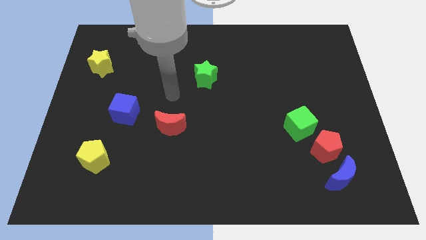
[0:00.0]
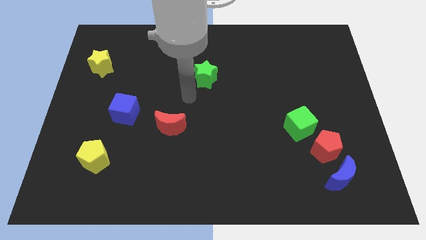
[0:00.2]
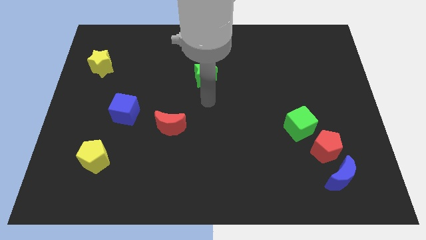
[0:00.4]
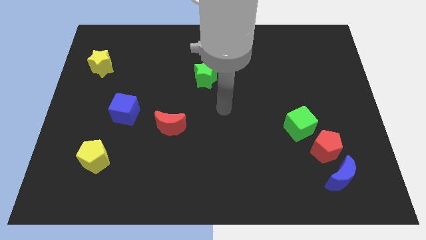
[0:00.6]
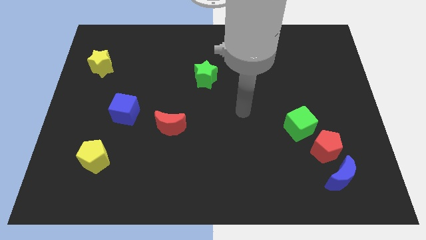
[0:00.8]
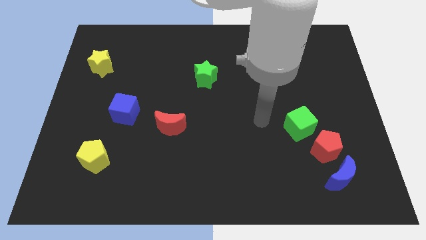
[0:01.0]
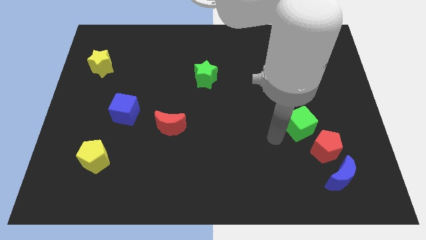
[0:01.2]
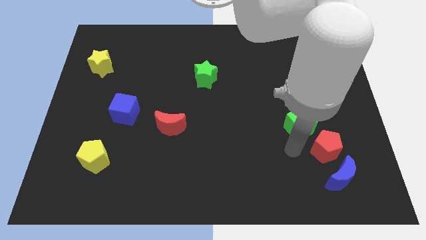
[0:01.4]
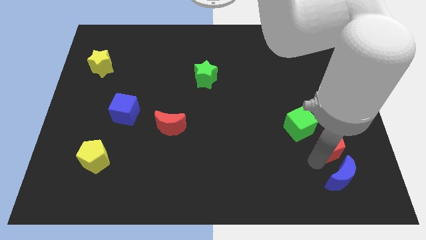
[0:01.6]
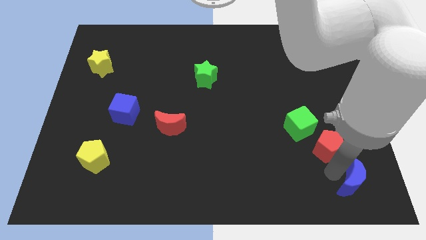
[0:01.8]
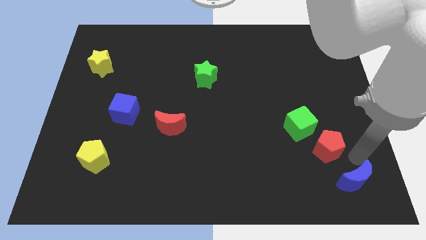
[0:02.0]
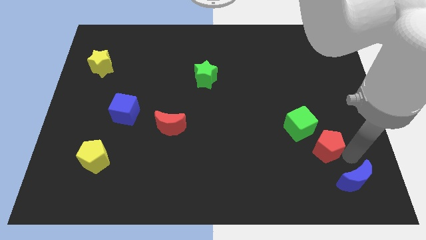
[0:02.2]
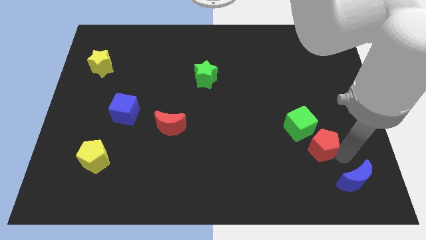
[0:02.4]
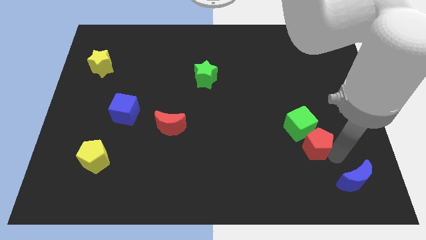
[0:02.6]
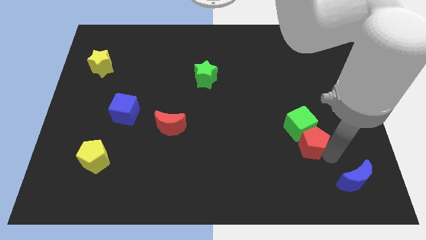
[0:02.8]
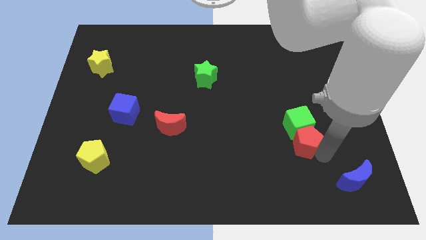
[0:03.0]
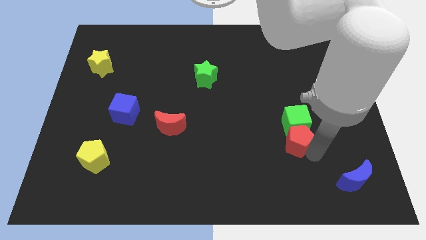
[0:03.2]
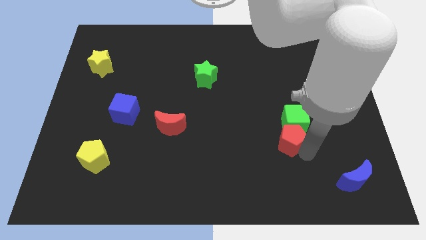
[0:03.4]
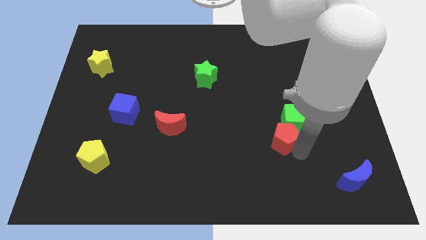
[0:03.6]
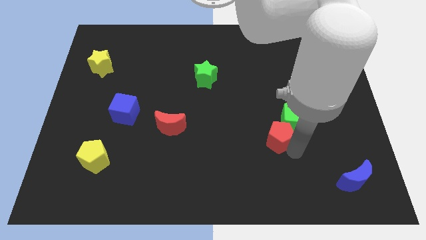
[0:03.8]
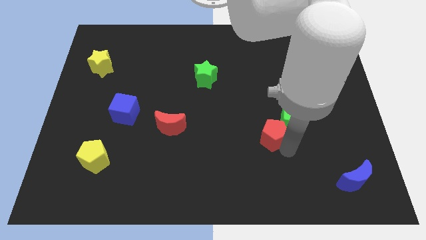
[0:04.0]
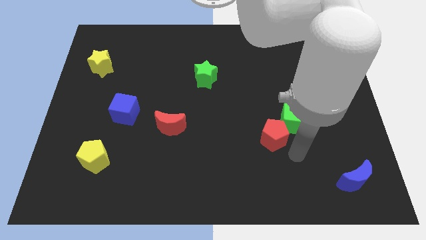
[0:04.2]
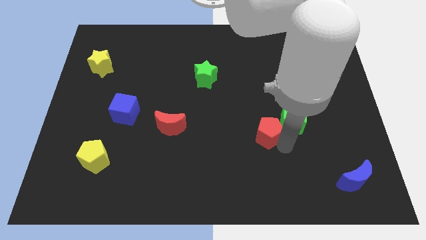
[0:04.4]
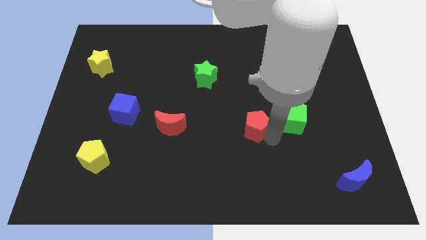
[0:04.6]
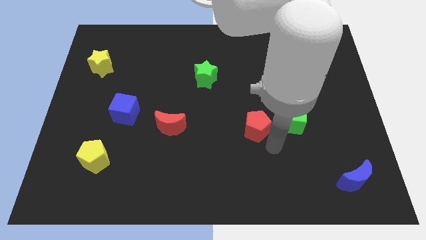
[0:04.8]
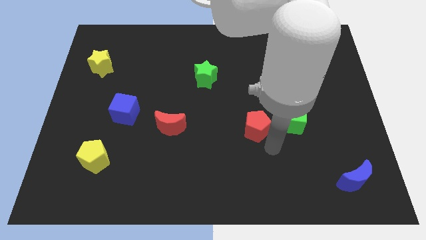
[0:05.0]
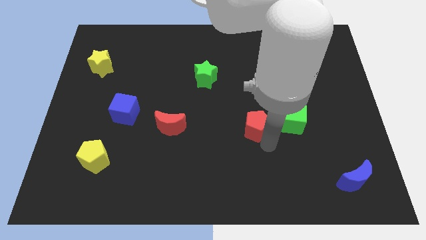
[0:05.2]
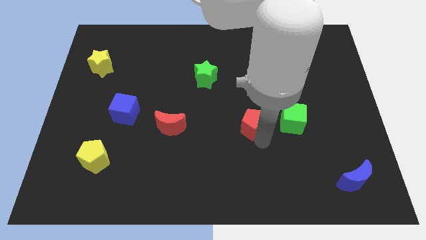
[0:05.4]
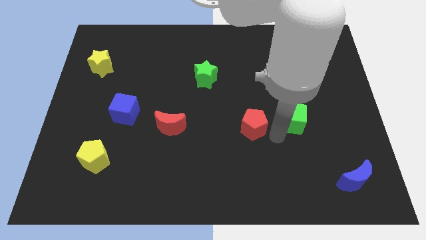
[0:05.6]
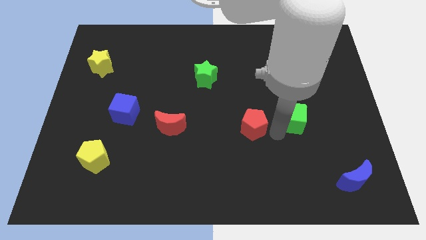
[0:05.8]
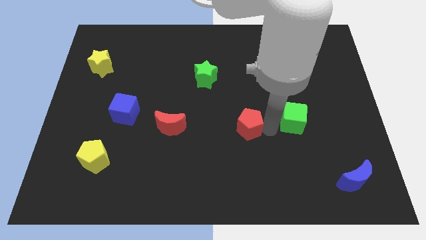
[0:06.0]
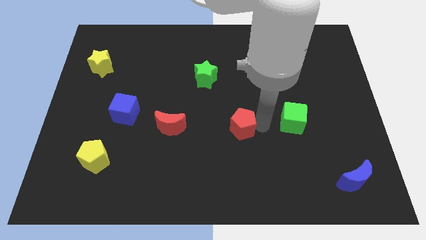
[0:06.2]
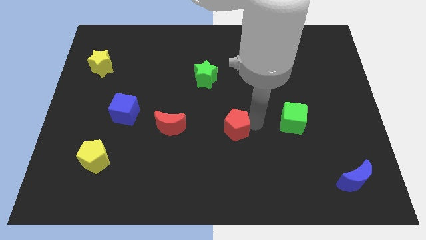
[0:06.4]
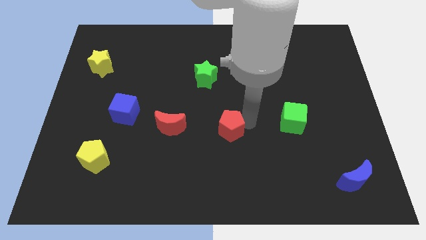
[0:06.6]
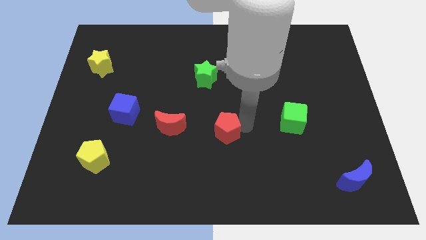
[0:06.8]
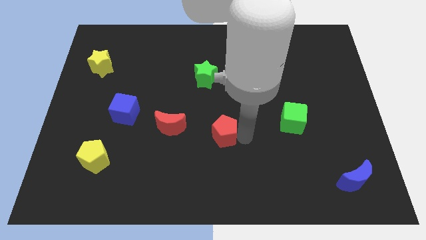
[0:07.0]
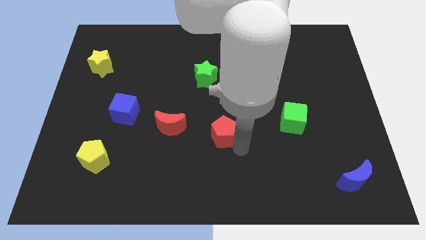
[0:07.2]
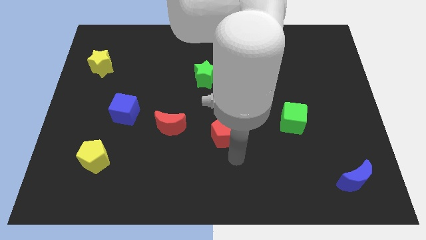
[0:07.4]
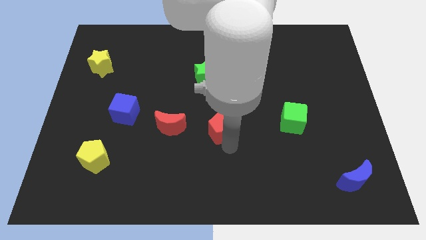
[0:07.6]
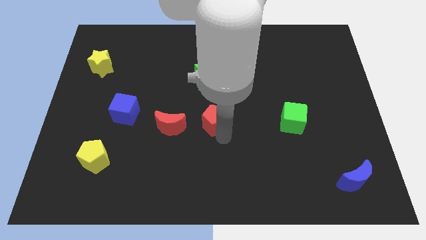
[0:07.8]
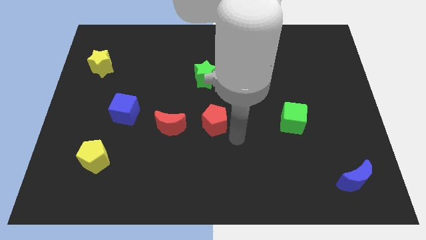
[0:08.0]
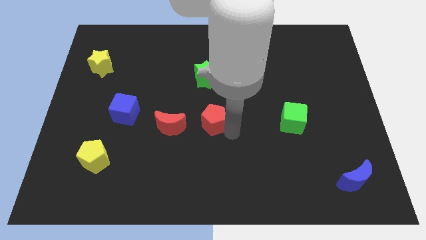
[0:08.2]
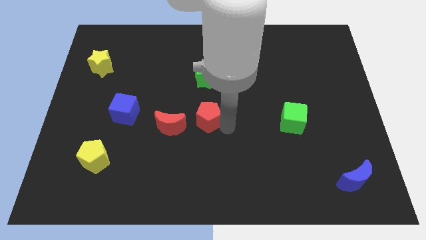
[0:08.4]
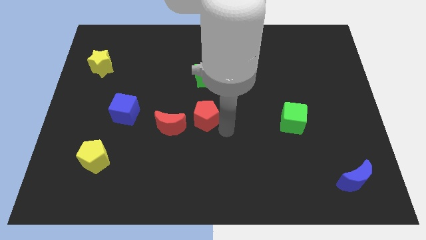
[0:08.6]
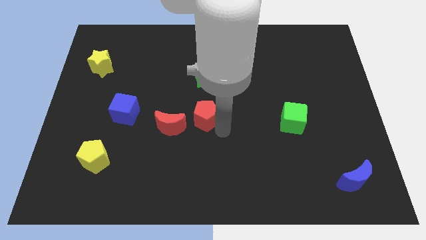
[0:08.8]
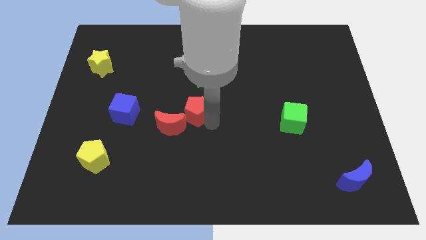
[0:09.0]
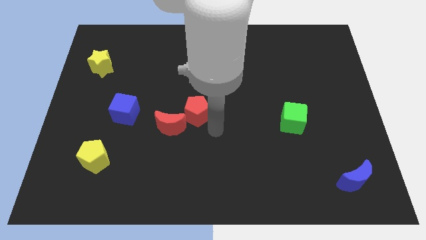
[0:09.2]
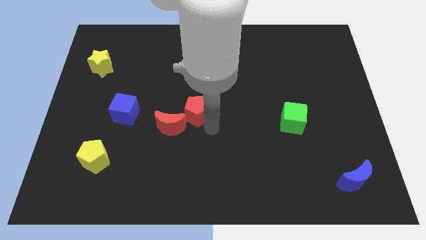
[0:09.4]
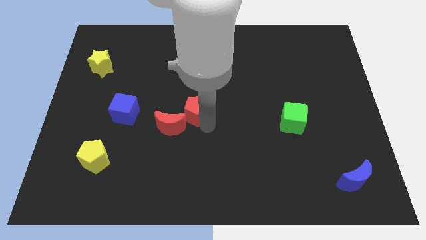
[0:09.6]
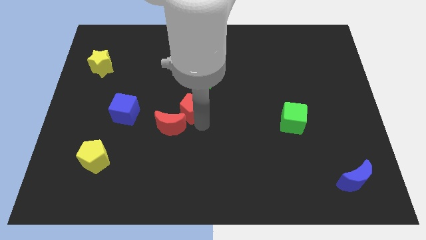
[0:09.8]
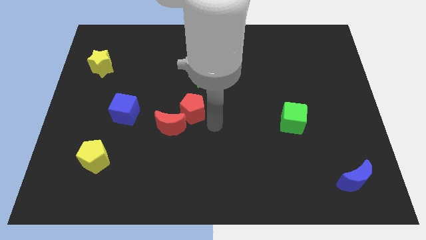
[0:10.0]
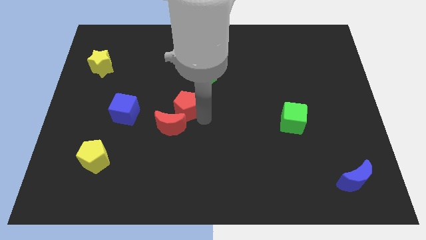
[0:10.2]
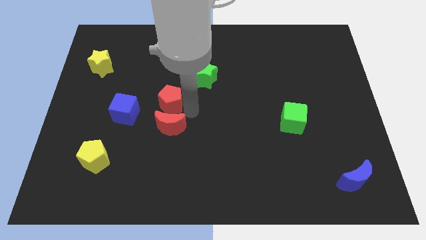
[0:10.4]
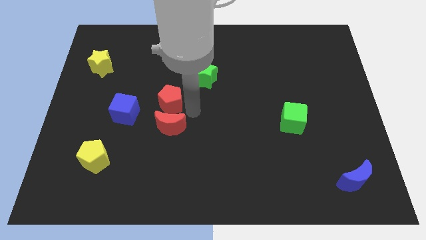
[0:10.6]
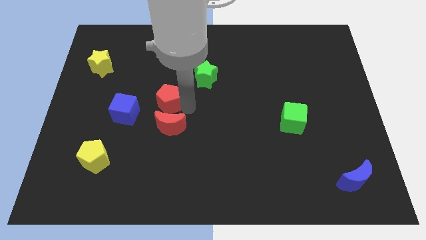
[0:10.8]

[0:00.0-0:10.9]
push the red pentagon to the top right side of the blue cube

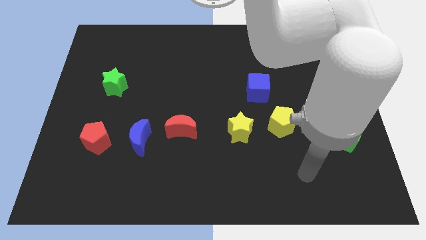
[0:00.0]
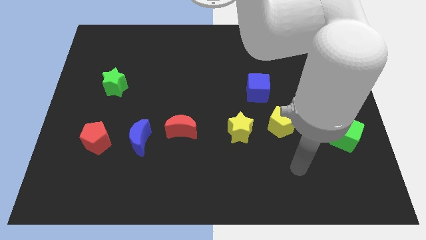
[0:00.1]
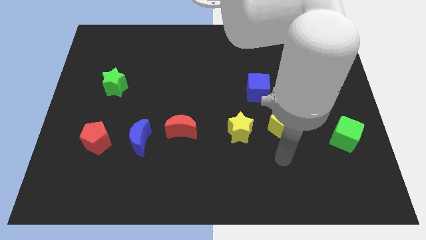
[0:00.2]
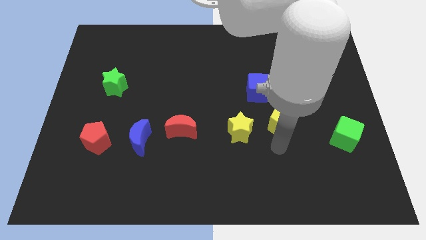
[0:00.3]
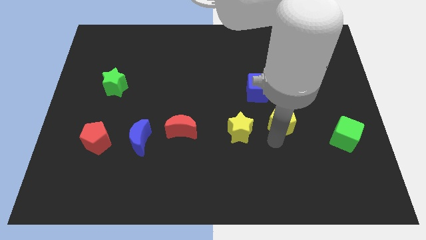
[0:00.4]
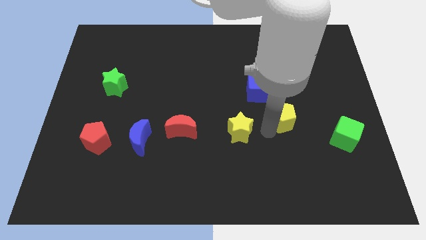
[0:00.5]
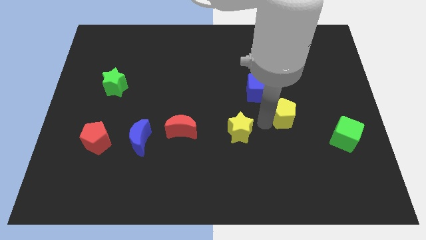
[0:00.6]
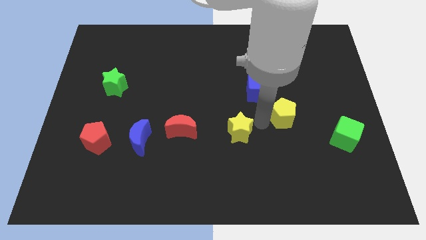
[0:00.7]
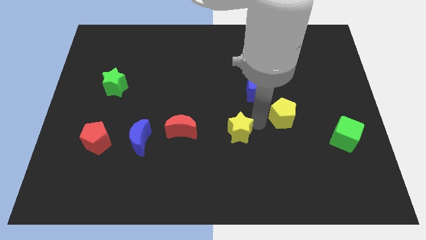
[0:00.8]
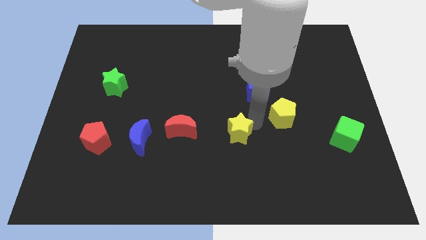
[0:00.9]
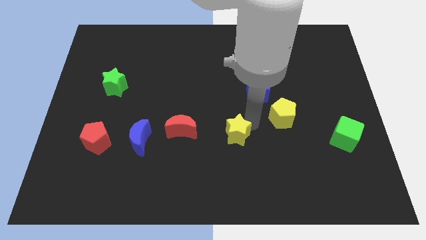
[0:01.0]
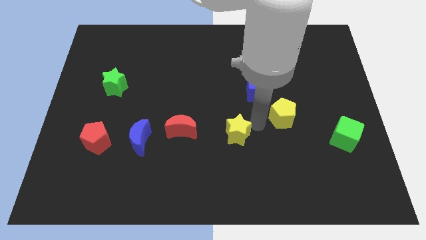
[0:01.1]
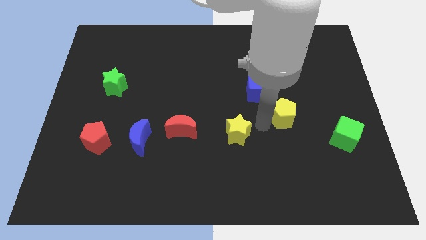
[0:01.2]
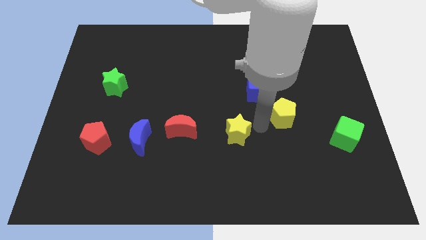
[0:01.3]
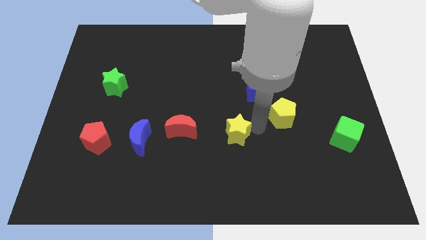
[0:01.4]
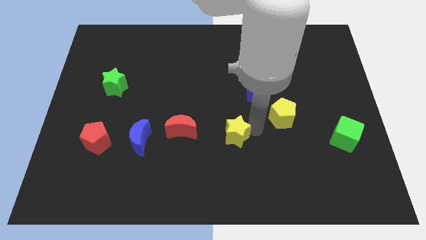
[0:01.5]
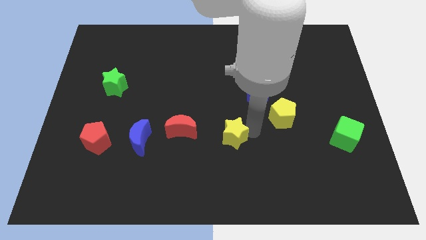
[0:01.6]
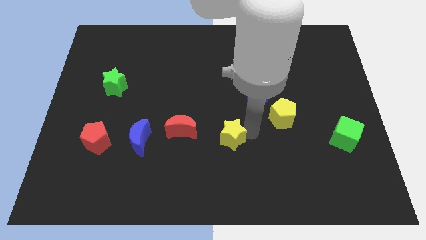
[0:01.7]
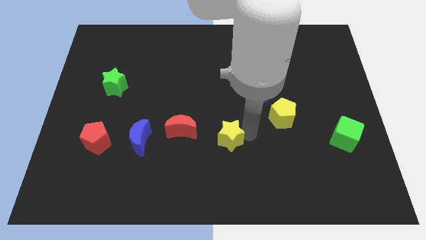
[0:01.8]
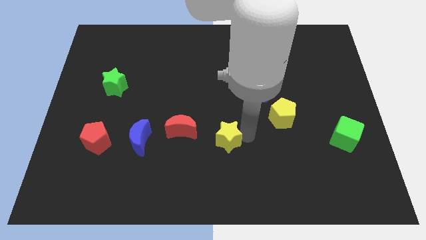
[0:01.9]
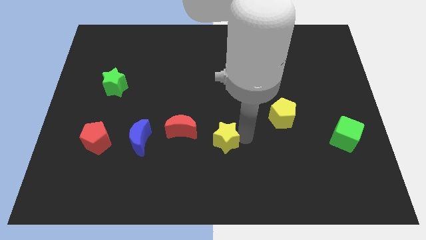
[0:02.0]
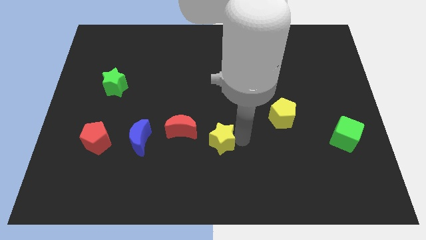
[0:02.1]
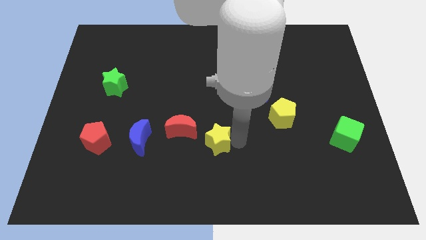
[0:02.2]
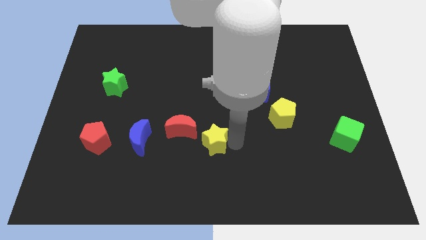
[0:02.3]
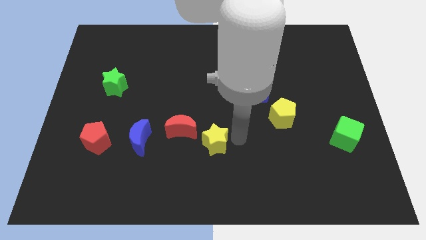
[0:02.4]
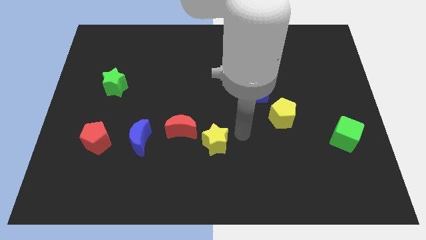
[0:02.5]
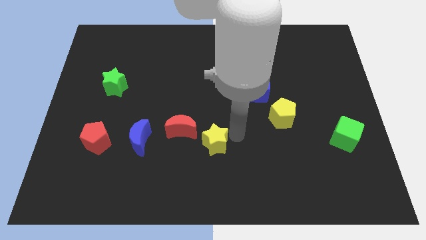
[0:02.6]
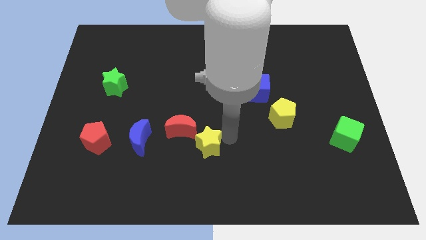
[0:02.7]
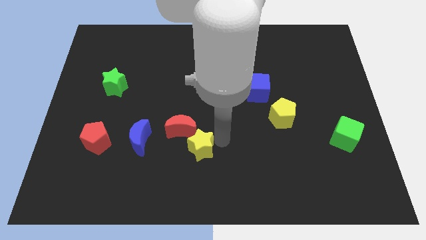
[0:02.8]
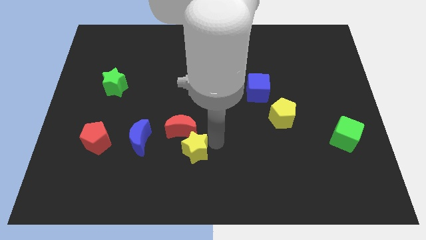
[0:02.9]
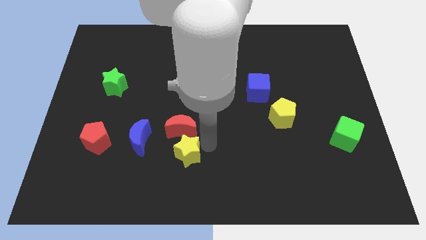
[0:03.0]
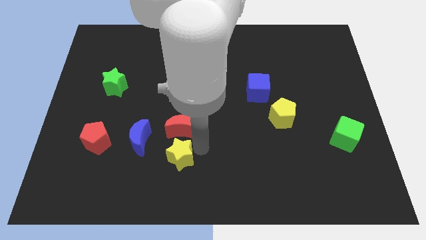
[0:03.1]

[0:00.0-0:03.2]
put the yellow star diagonally down and to the right of the blue moon
